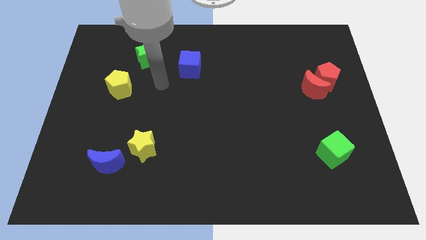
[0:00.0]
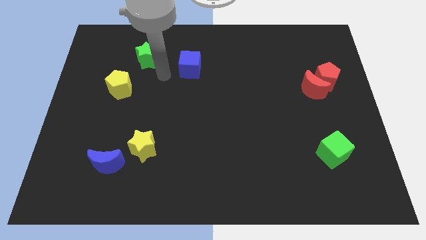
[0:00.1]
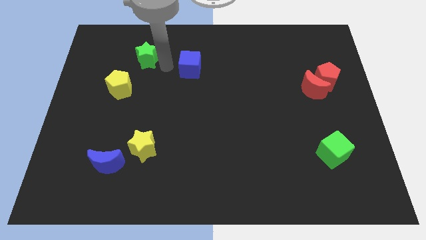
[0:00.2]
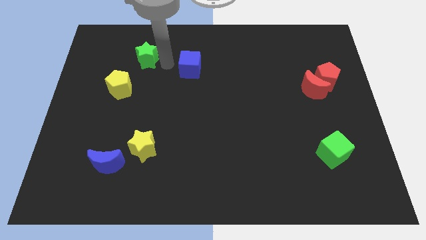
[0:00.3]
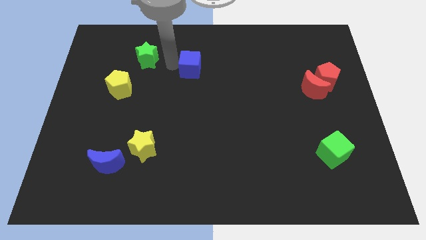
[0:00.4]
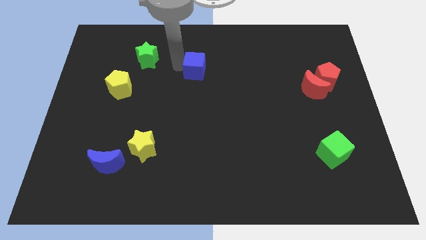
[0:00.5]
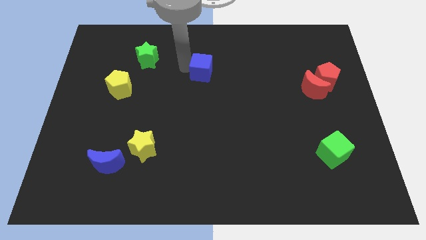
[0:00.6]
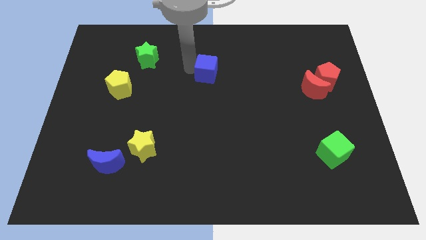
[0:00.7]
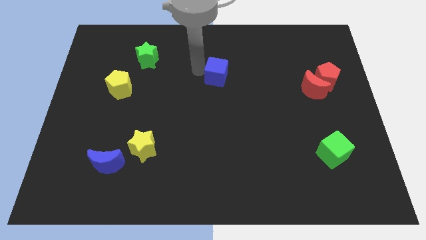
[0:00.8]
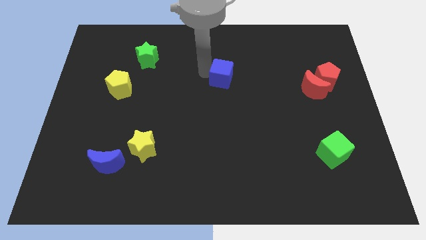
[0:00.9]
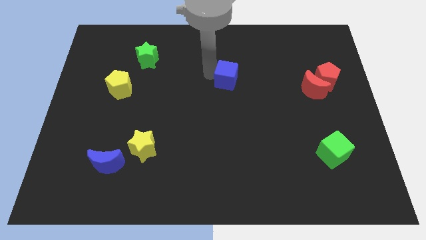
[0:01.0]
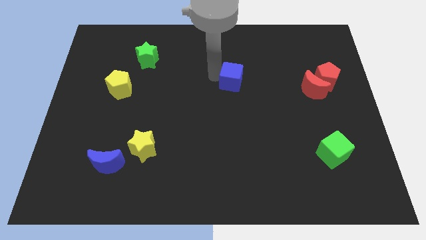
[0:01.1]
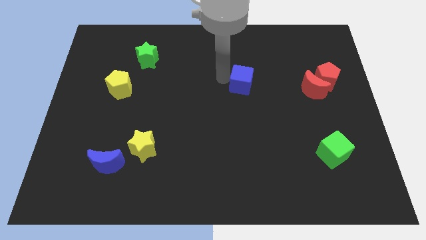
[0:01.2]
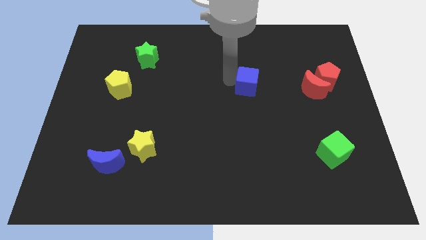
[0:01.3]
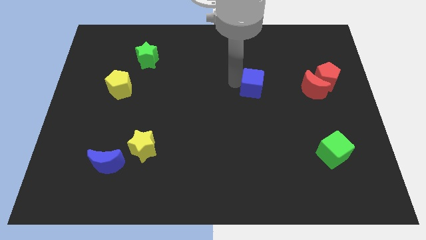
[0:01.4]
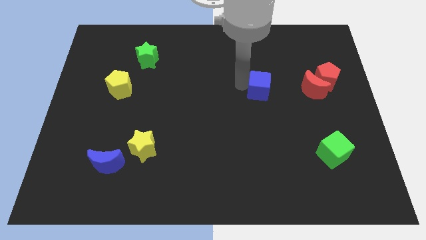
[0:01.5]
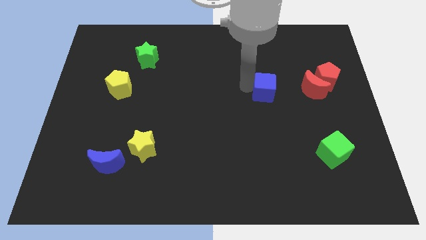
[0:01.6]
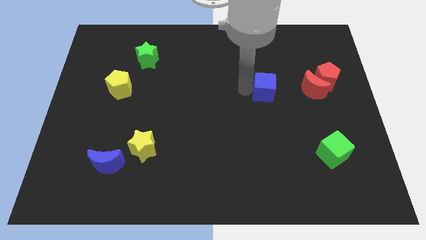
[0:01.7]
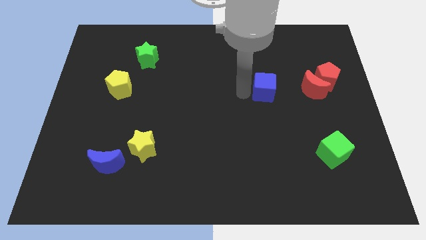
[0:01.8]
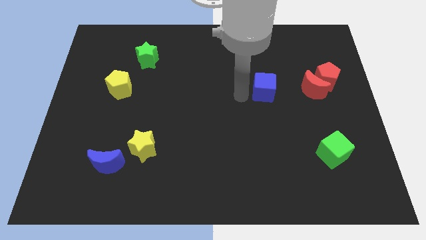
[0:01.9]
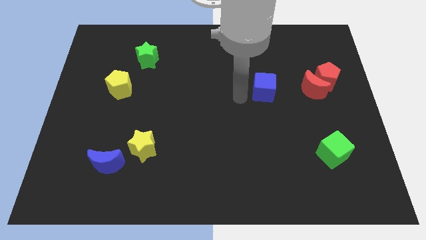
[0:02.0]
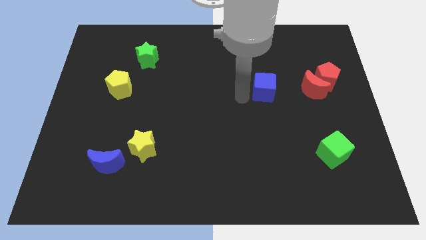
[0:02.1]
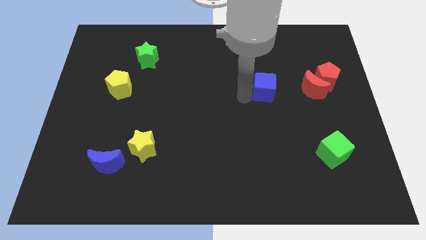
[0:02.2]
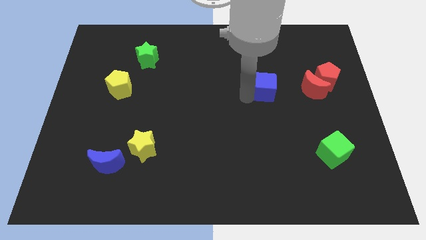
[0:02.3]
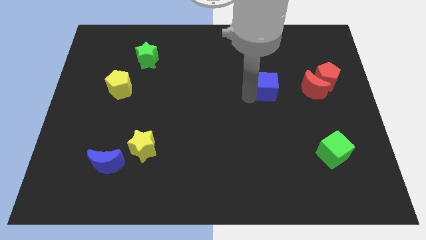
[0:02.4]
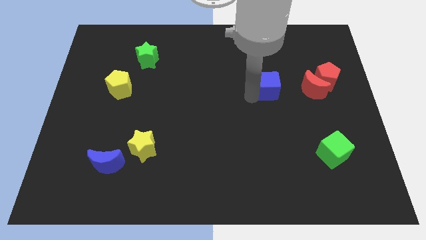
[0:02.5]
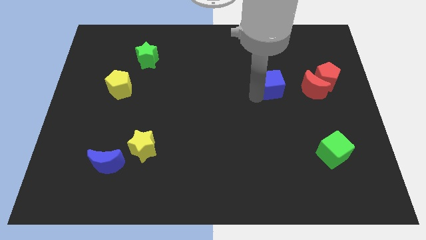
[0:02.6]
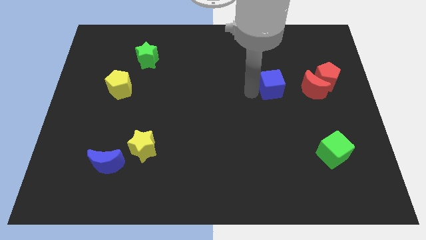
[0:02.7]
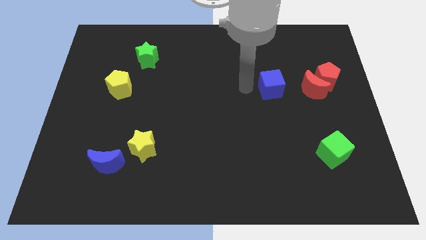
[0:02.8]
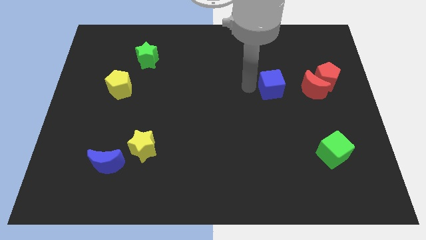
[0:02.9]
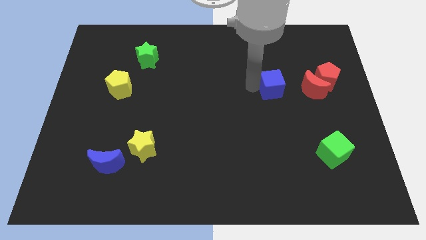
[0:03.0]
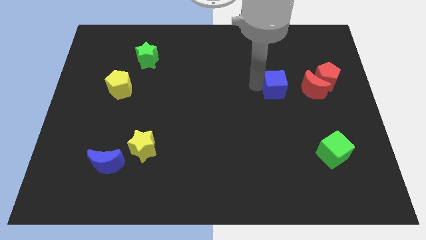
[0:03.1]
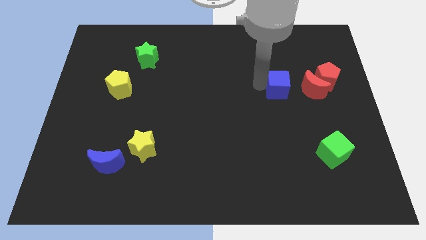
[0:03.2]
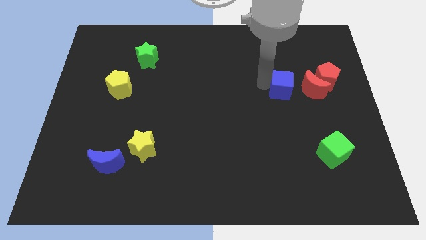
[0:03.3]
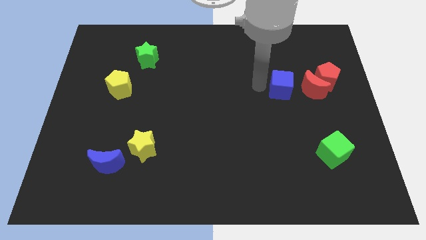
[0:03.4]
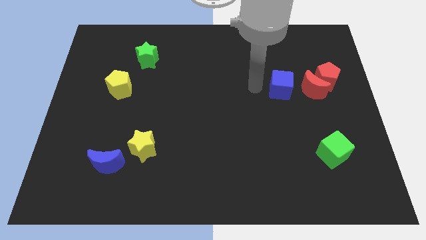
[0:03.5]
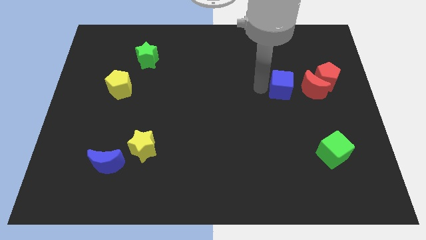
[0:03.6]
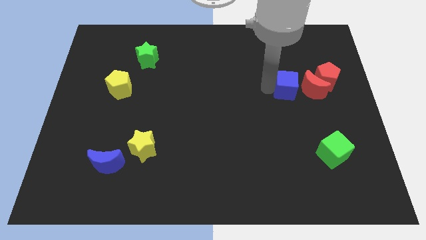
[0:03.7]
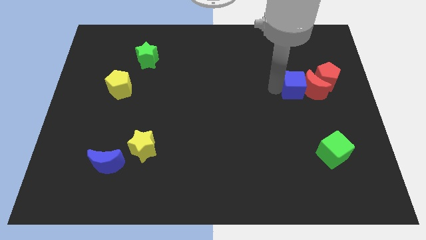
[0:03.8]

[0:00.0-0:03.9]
slide the blue cube to the red moon

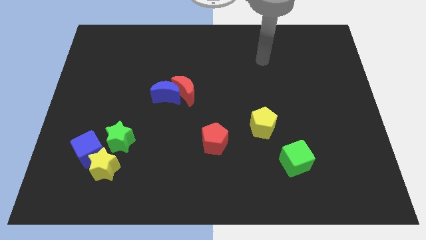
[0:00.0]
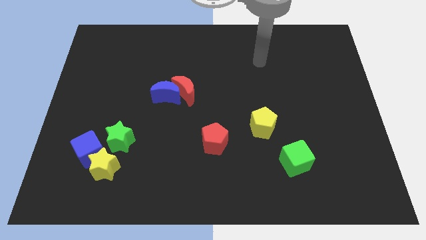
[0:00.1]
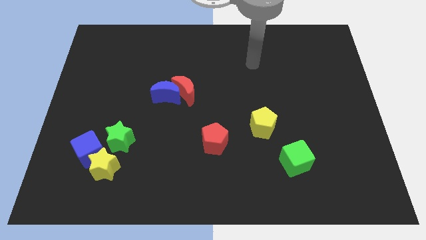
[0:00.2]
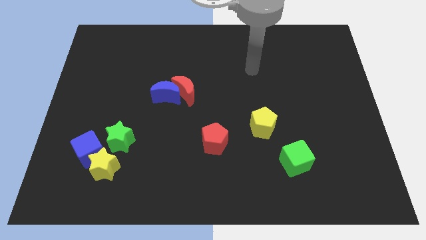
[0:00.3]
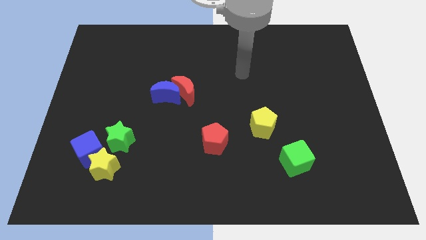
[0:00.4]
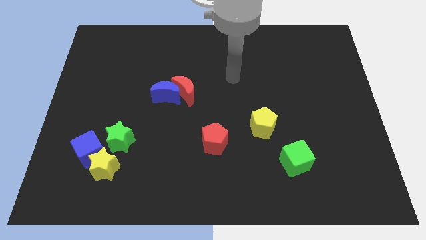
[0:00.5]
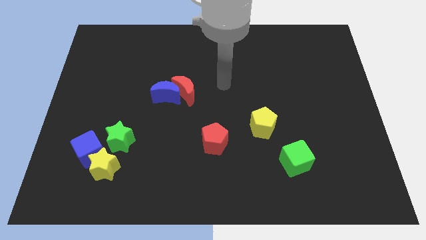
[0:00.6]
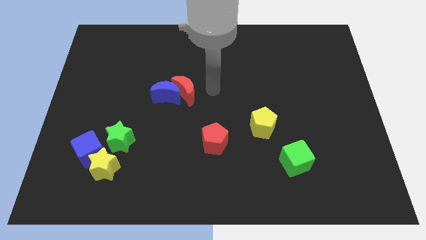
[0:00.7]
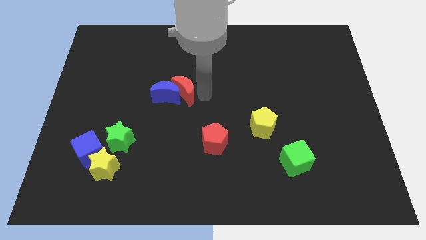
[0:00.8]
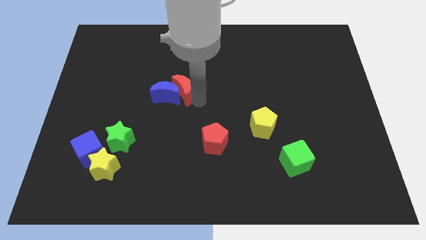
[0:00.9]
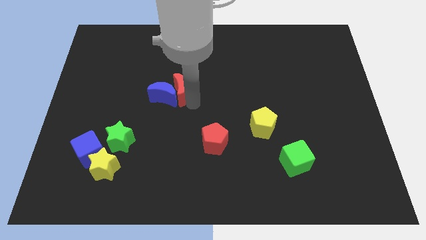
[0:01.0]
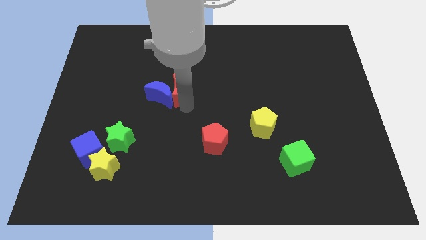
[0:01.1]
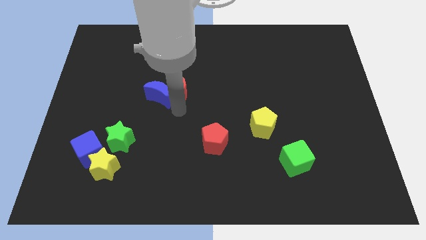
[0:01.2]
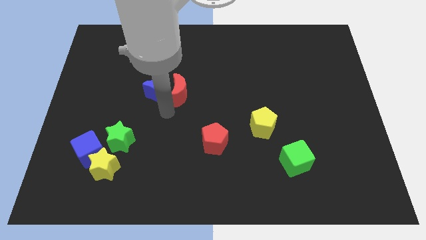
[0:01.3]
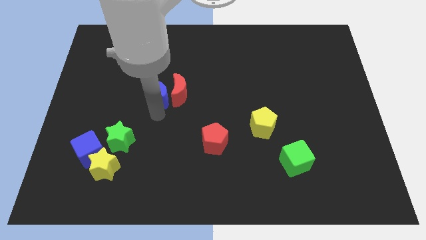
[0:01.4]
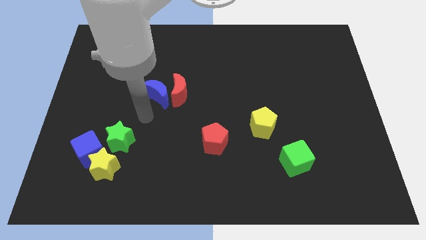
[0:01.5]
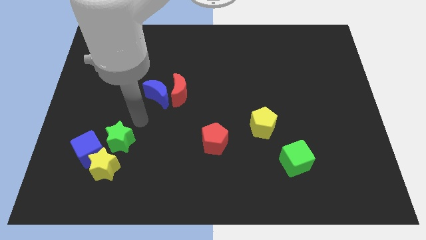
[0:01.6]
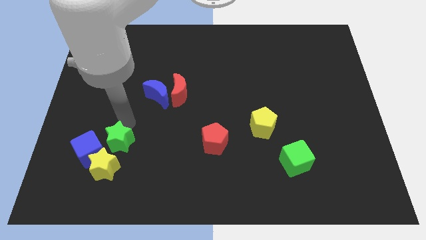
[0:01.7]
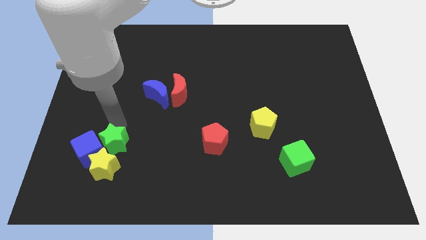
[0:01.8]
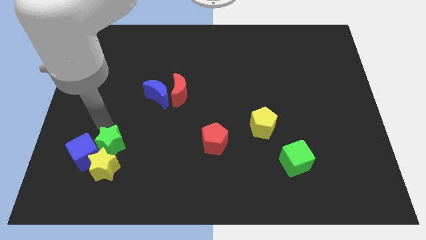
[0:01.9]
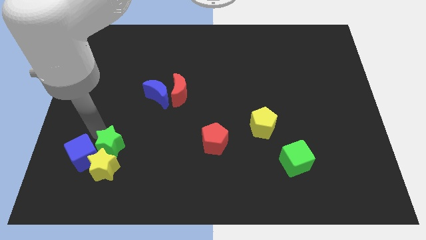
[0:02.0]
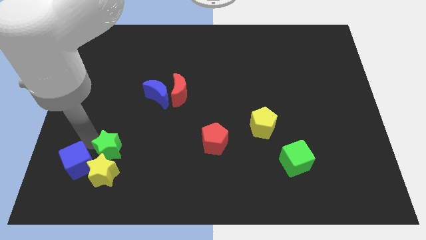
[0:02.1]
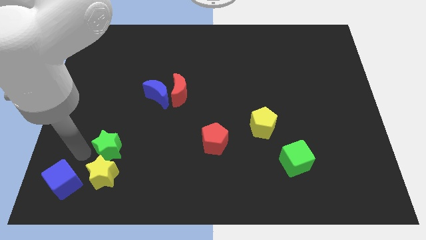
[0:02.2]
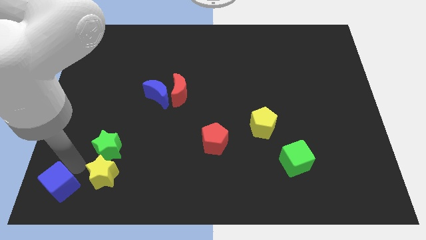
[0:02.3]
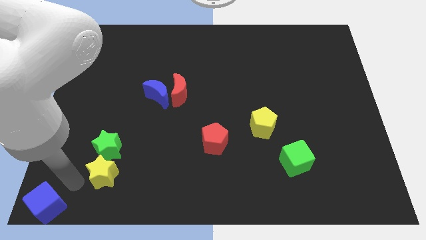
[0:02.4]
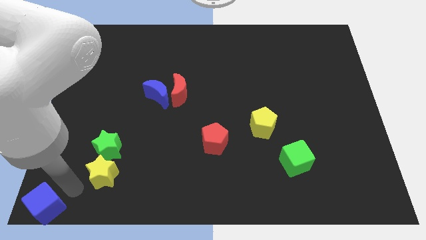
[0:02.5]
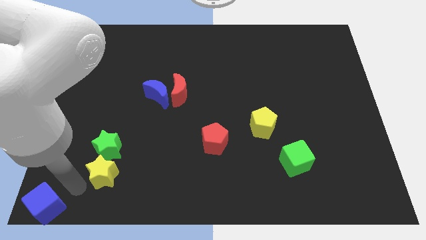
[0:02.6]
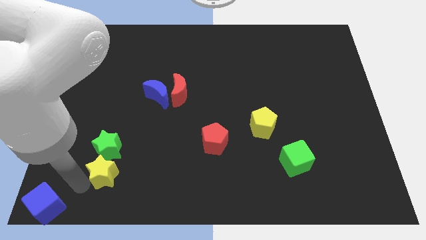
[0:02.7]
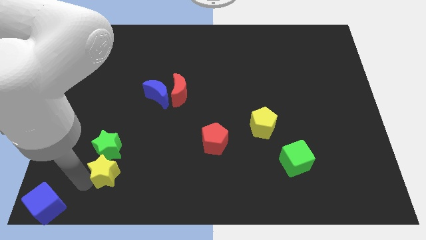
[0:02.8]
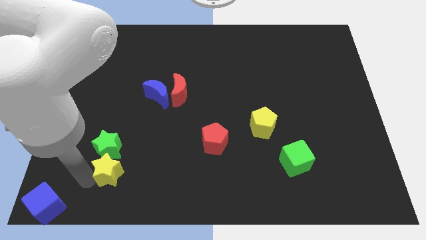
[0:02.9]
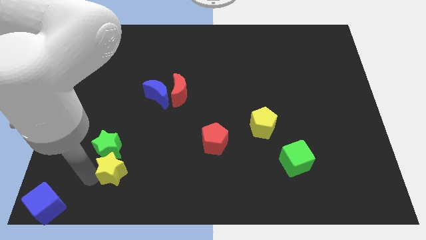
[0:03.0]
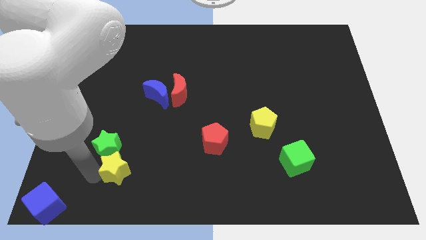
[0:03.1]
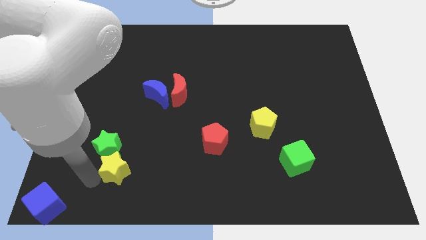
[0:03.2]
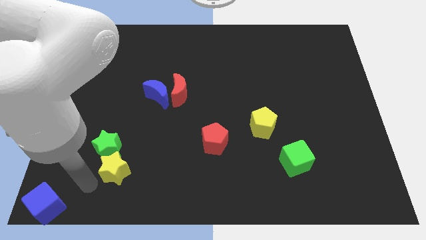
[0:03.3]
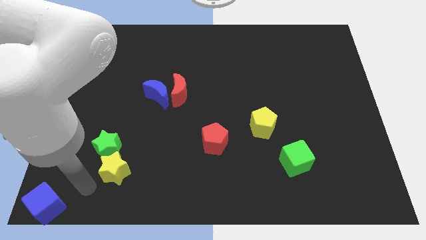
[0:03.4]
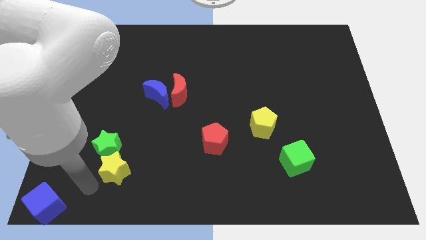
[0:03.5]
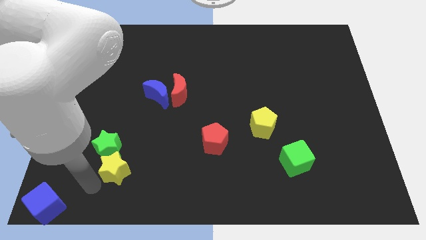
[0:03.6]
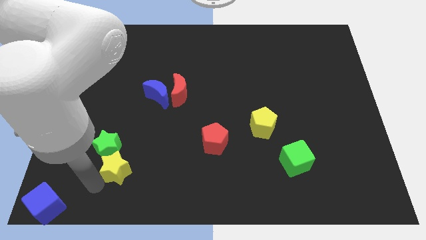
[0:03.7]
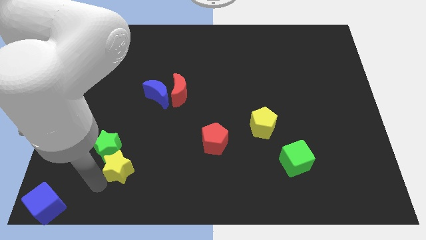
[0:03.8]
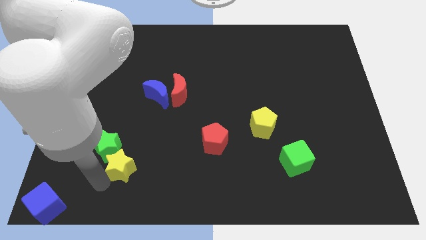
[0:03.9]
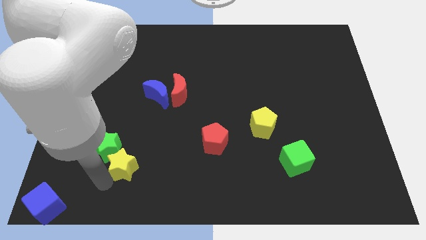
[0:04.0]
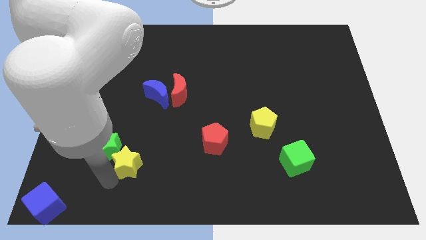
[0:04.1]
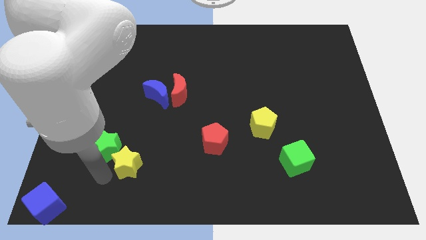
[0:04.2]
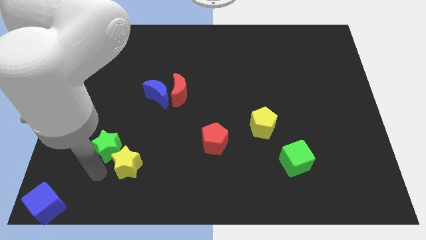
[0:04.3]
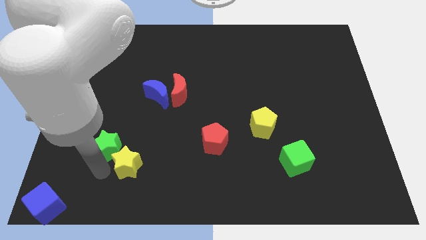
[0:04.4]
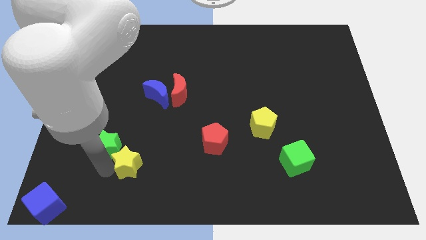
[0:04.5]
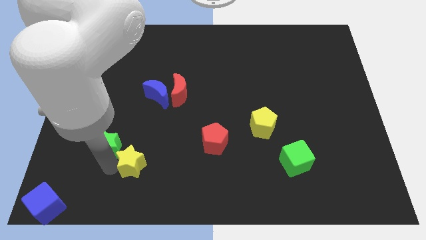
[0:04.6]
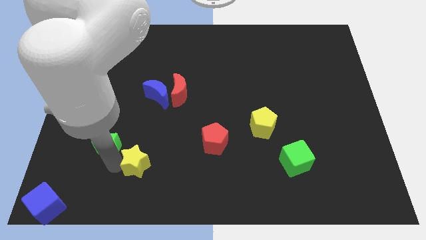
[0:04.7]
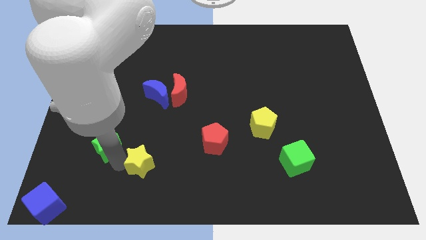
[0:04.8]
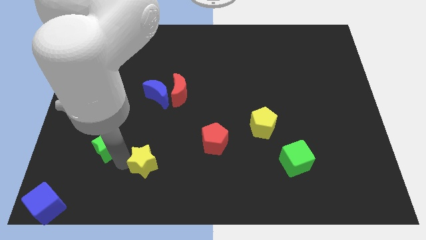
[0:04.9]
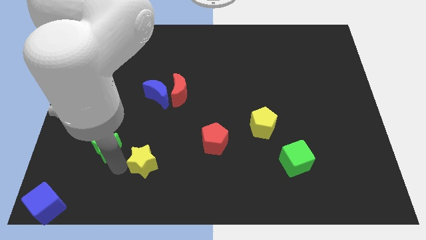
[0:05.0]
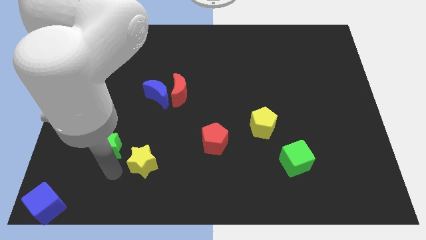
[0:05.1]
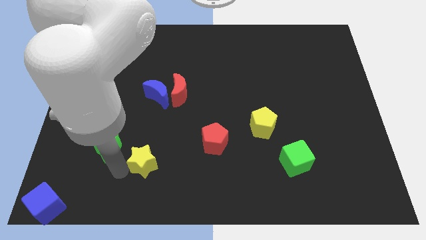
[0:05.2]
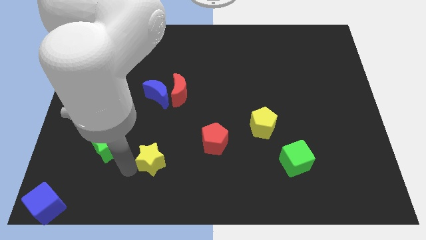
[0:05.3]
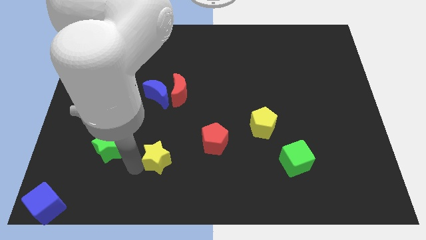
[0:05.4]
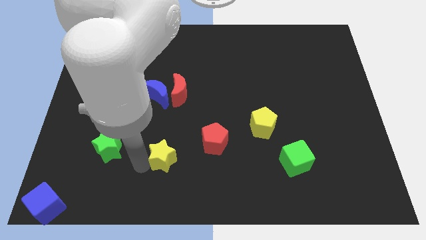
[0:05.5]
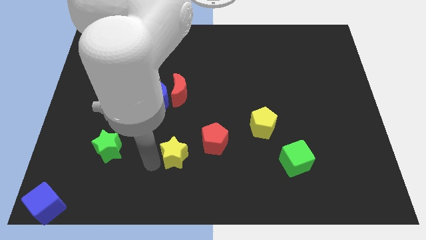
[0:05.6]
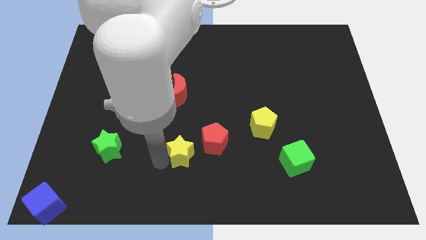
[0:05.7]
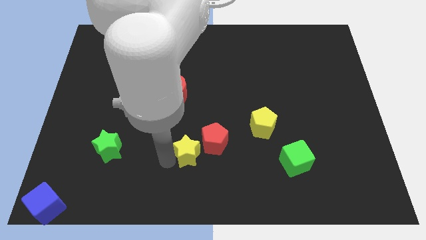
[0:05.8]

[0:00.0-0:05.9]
push the yellow star towards the red pentagon
